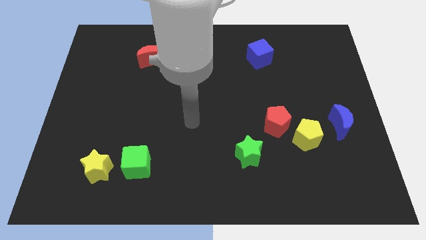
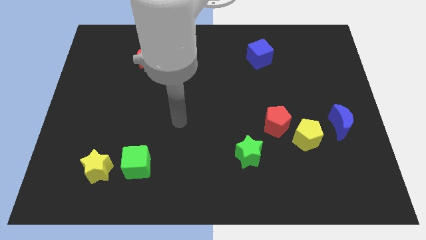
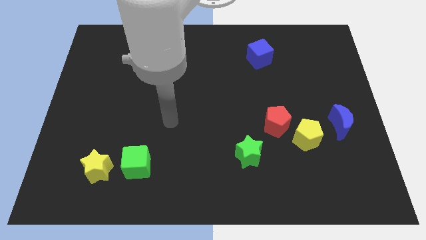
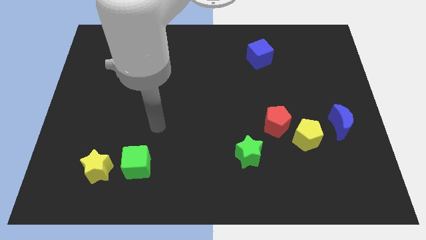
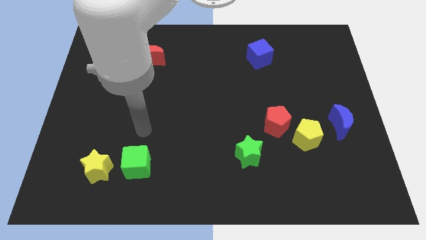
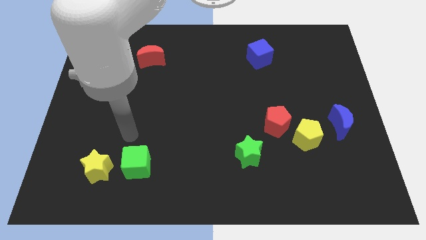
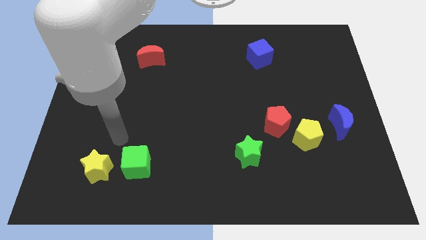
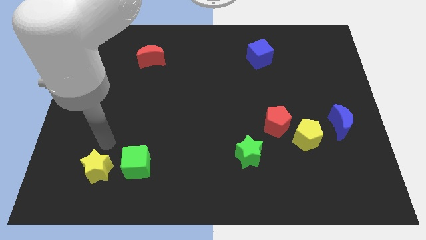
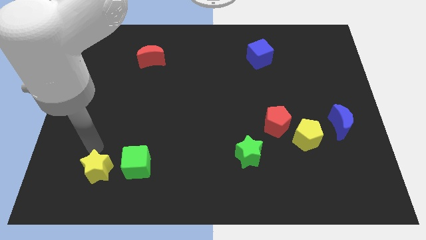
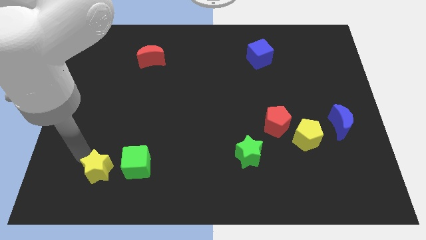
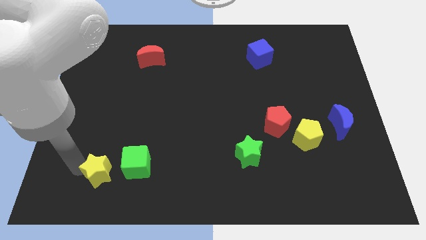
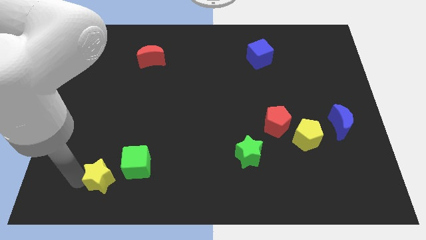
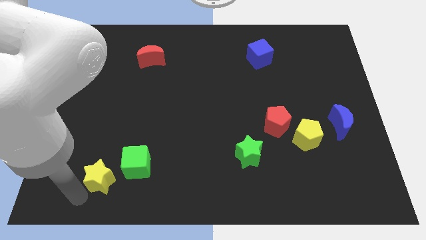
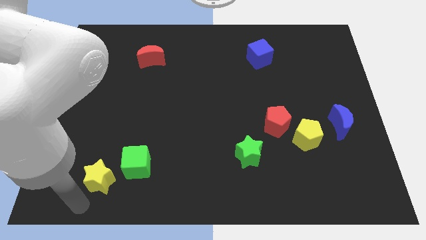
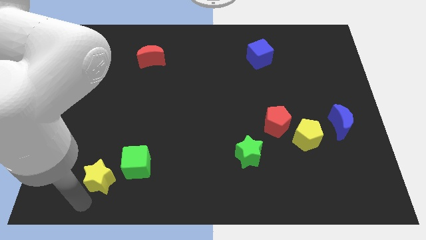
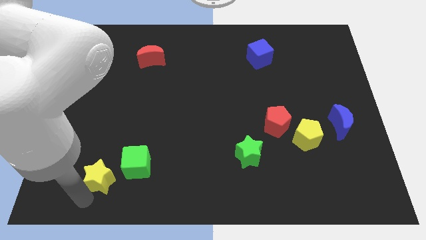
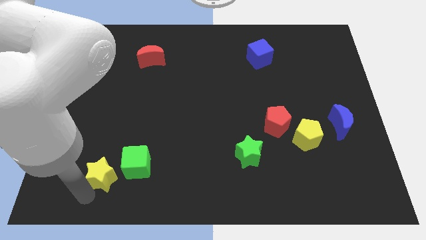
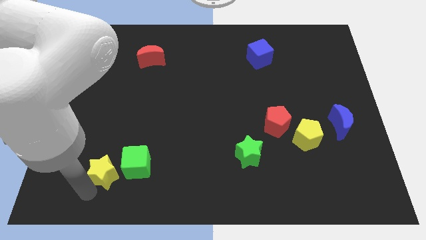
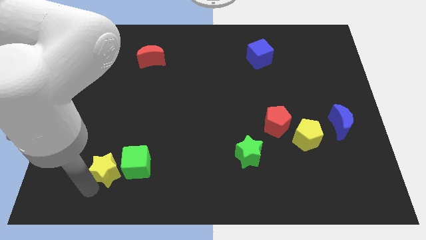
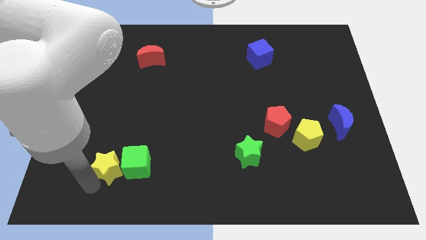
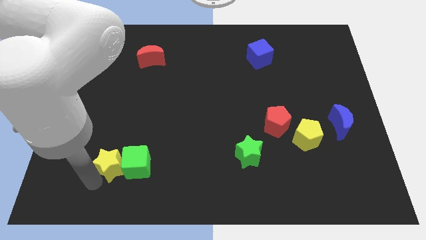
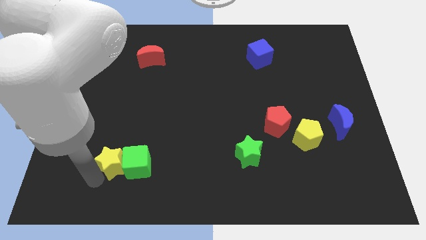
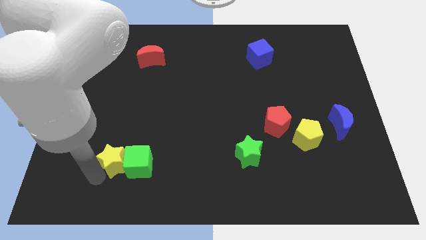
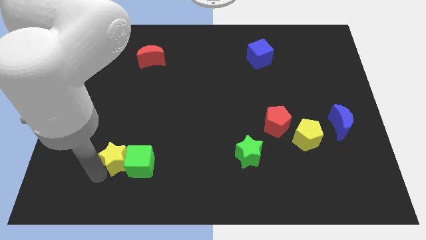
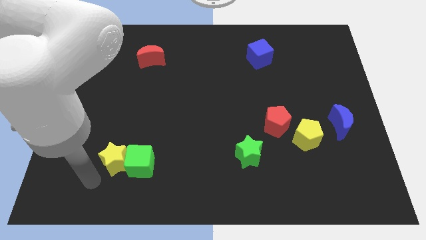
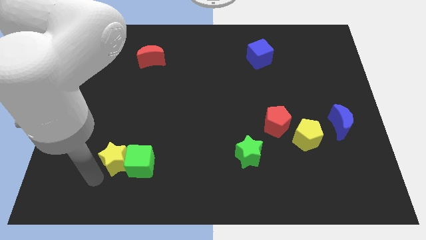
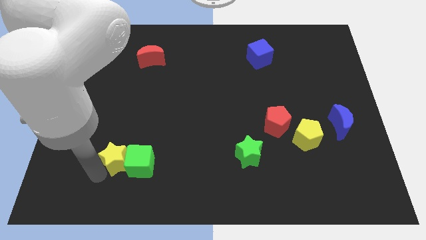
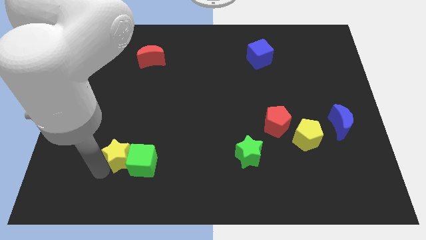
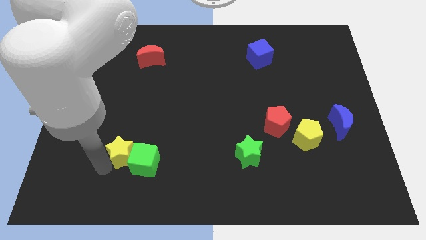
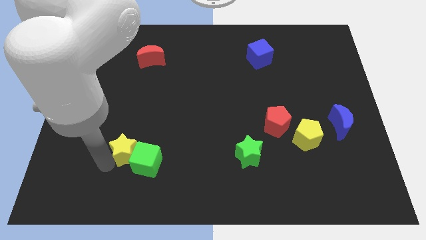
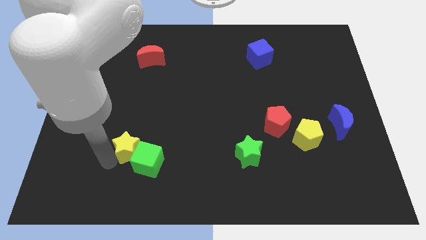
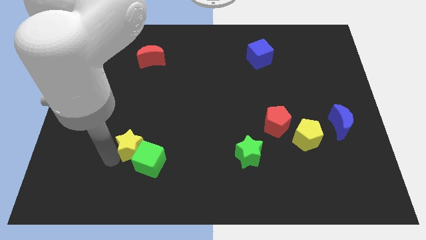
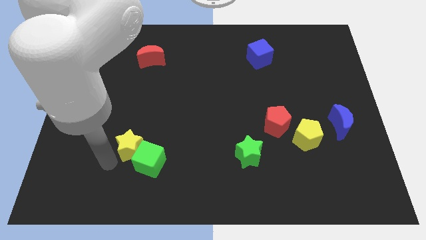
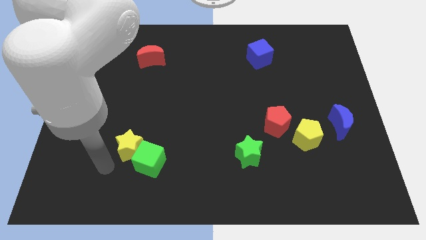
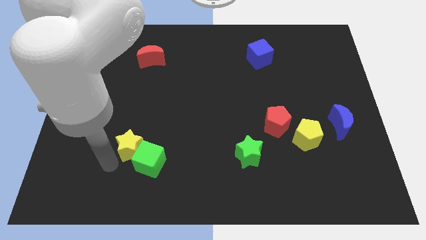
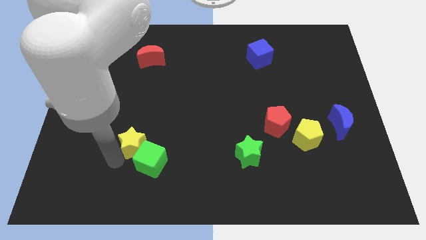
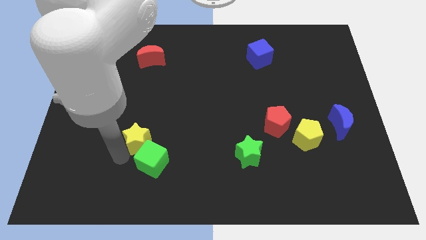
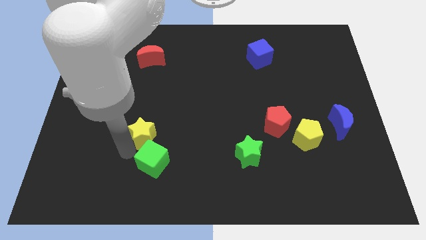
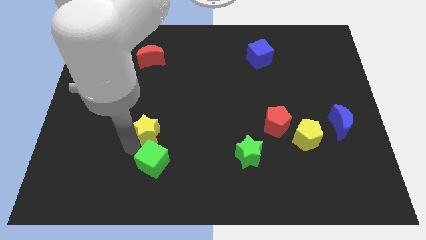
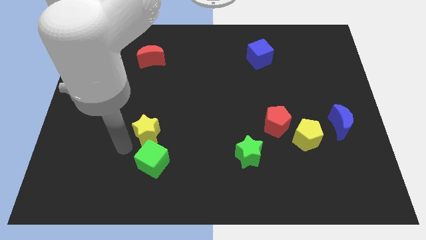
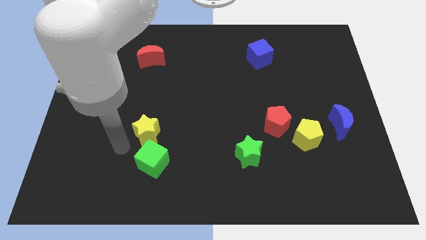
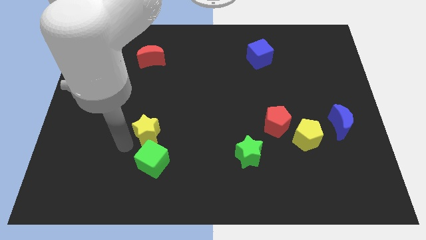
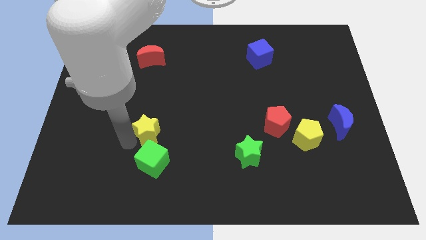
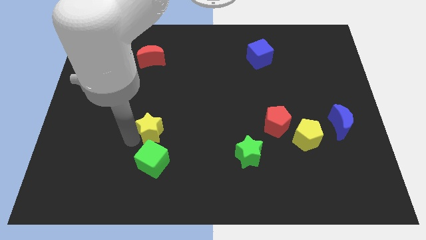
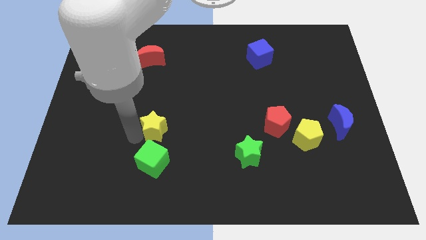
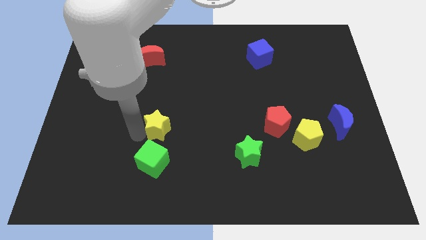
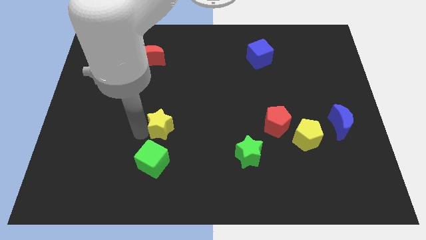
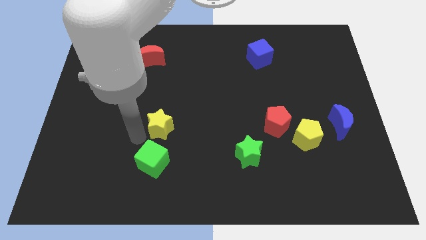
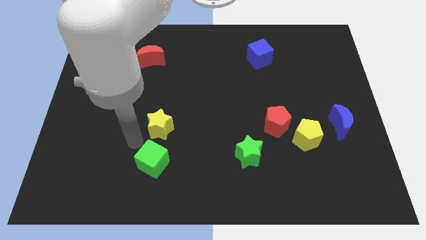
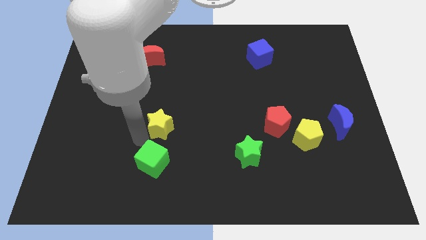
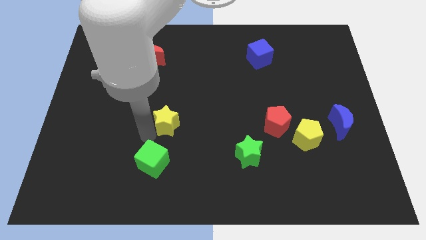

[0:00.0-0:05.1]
move the yellow star to the middle of the board

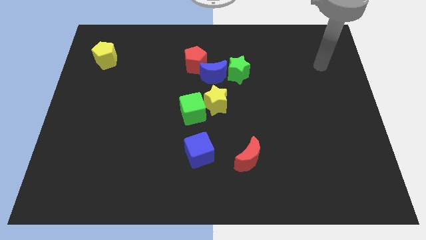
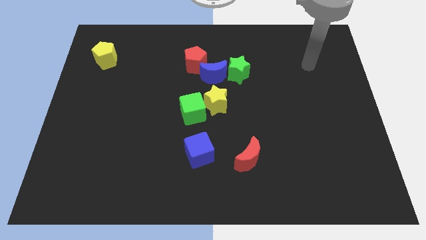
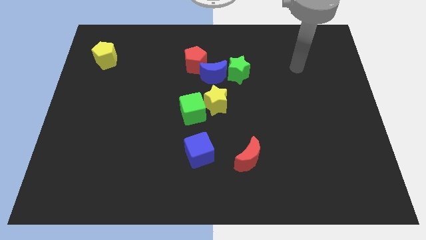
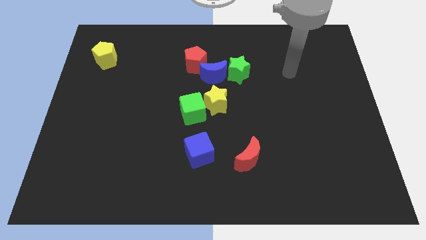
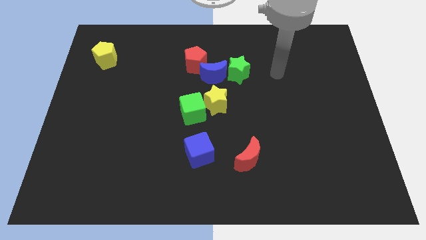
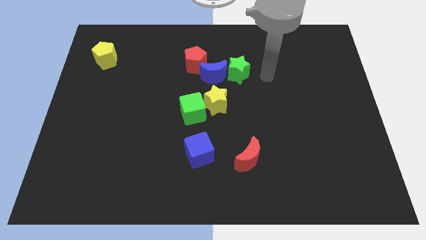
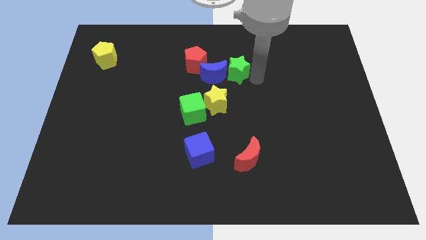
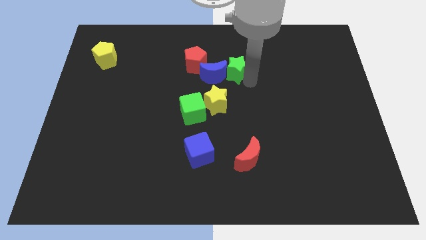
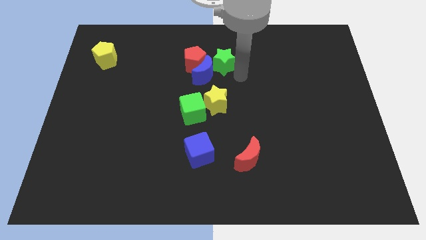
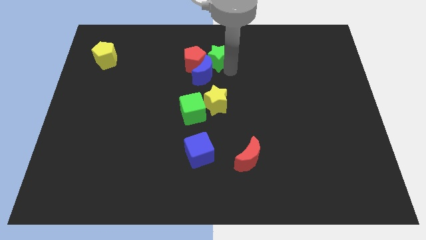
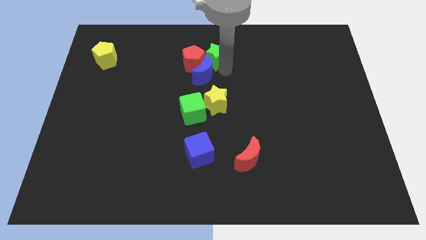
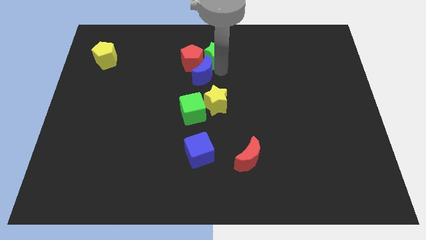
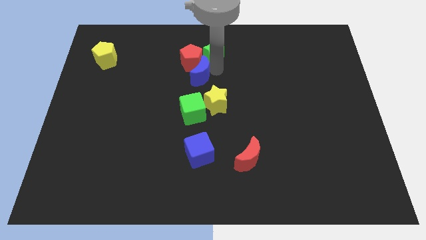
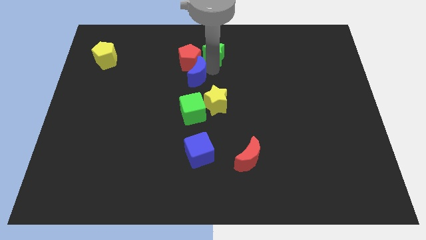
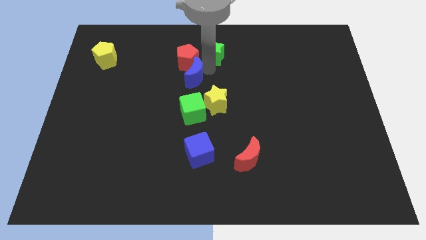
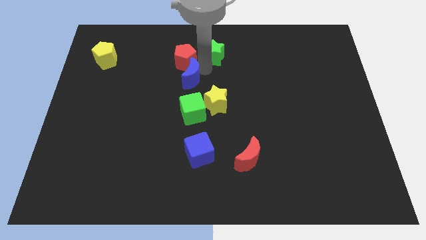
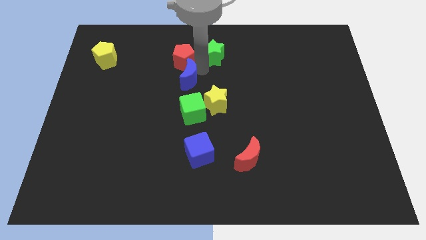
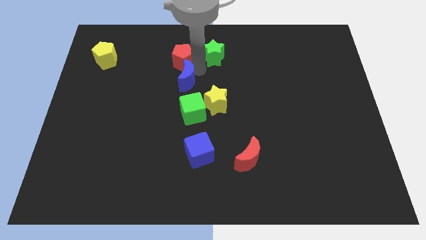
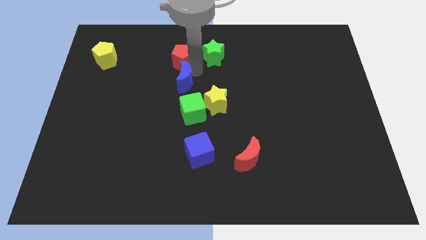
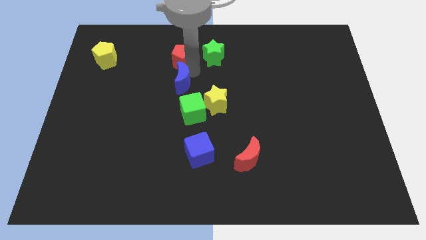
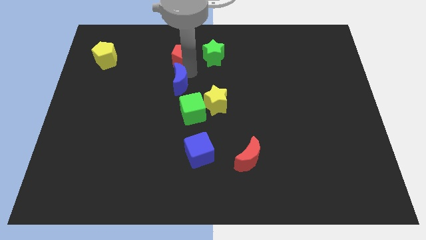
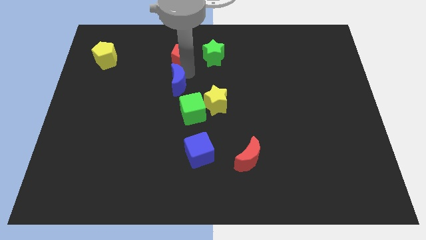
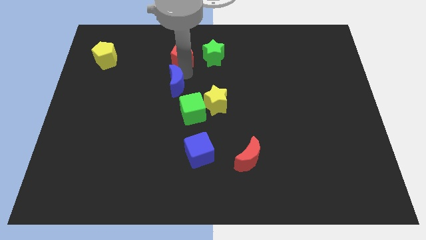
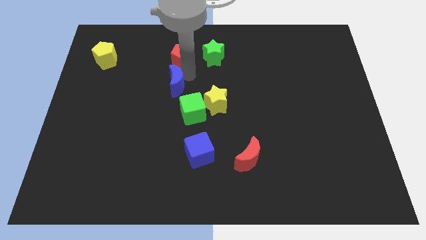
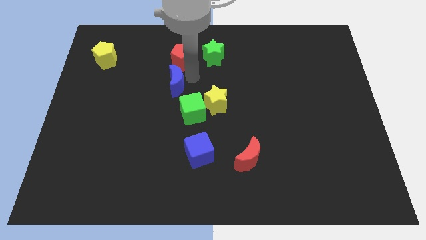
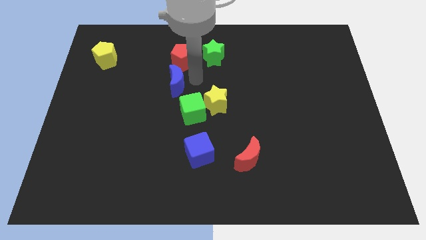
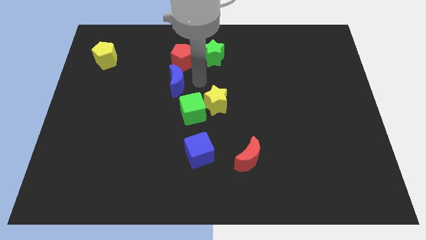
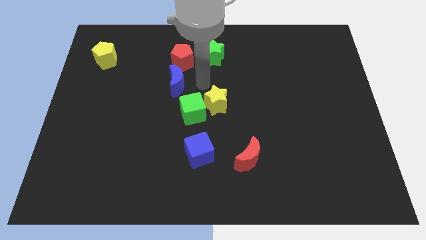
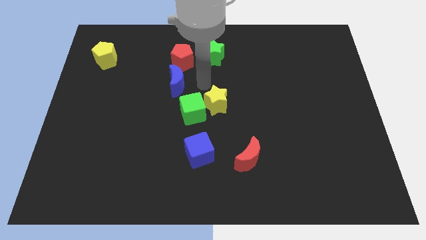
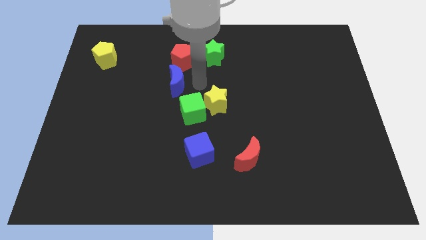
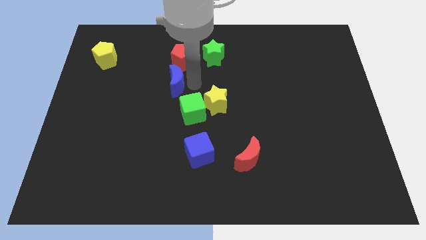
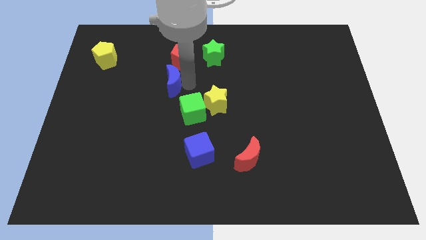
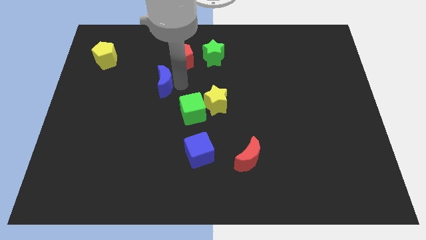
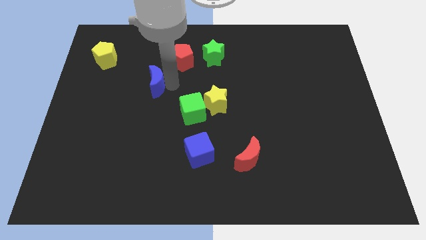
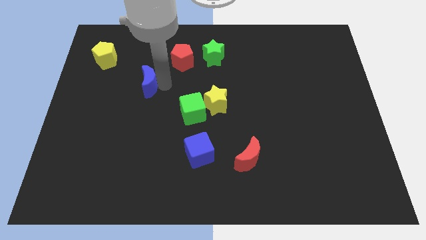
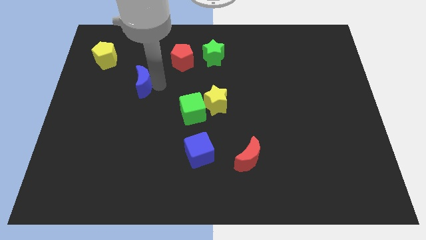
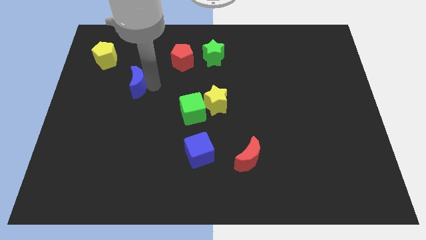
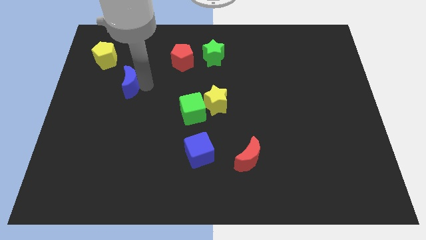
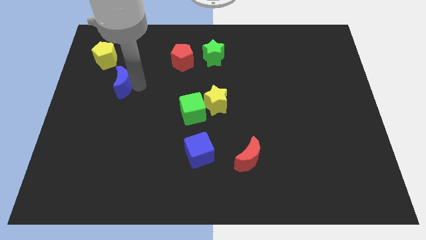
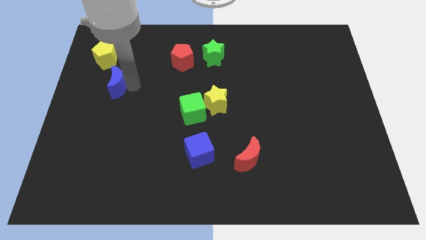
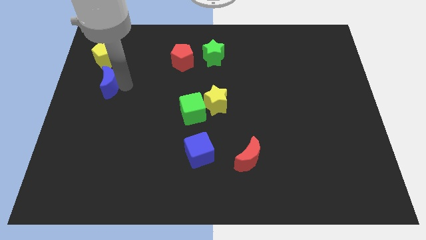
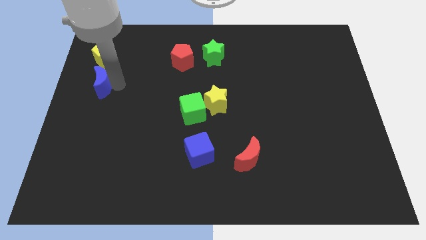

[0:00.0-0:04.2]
put the blue moon to the left side
